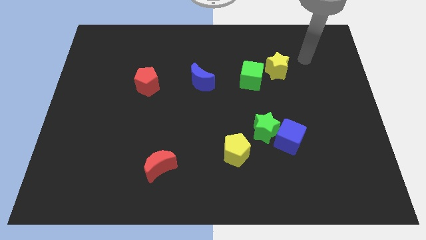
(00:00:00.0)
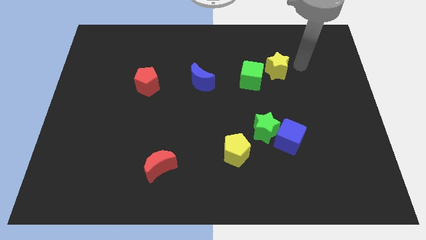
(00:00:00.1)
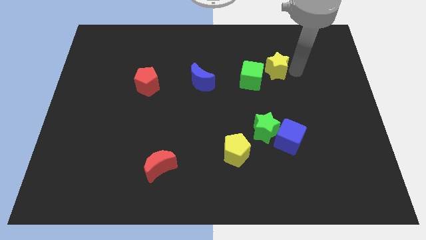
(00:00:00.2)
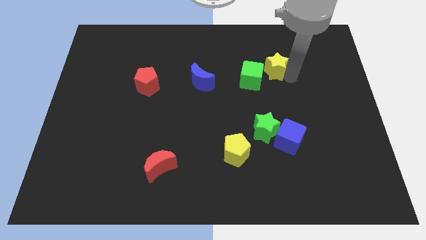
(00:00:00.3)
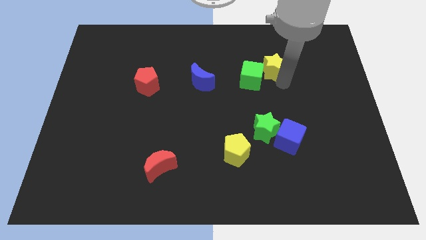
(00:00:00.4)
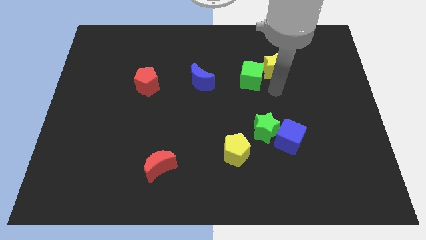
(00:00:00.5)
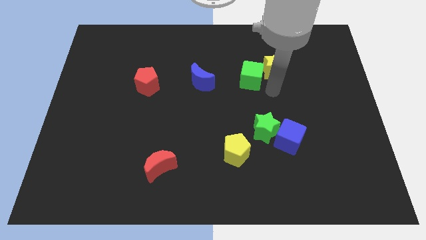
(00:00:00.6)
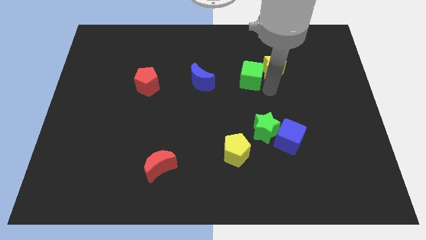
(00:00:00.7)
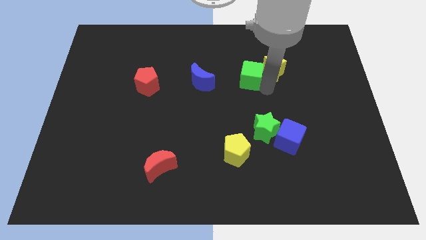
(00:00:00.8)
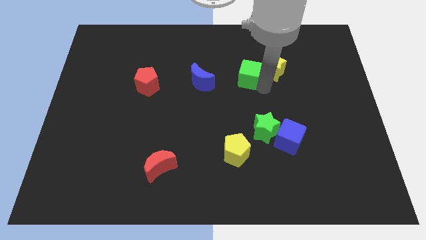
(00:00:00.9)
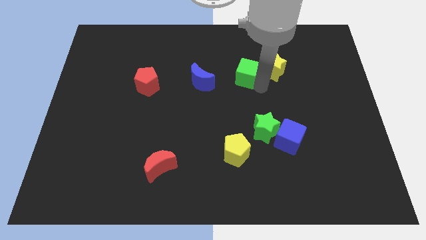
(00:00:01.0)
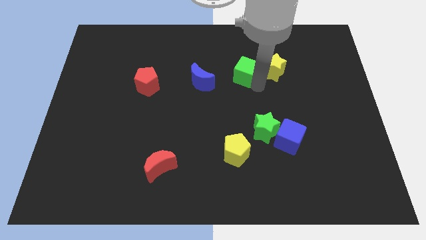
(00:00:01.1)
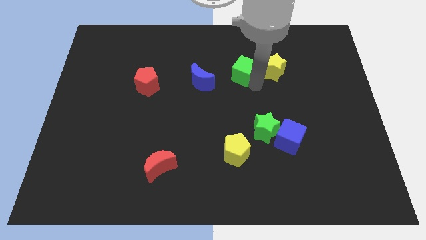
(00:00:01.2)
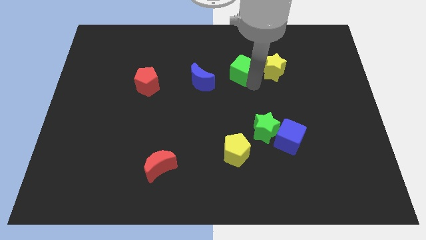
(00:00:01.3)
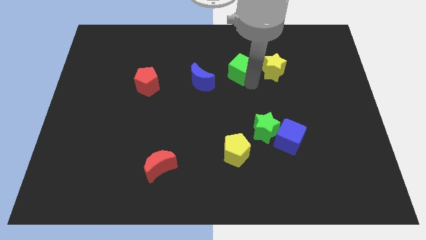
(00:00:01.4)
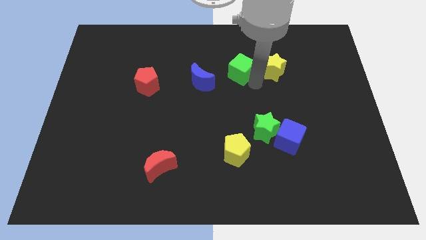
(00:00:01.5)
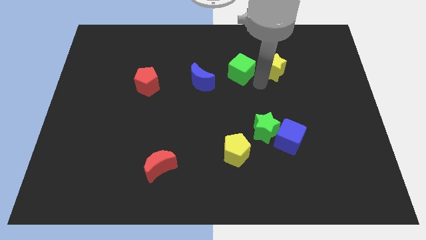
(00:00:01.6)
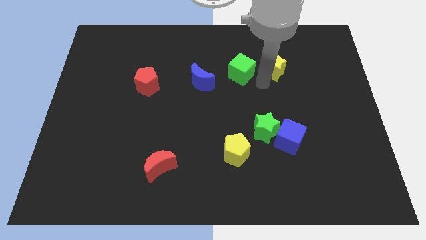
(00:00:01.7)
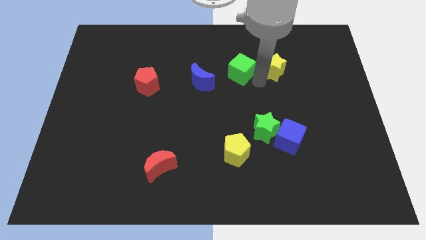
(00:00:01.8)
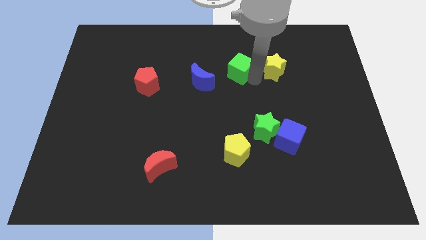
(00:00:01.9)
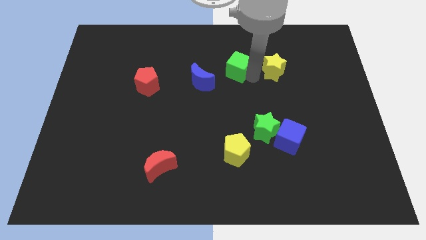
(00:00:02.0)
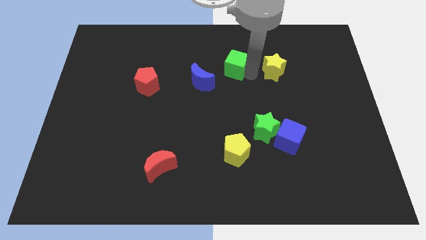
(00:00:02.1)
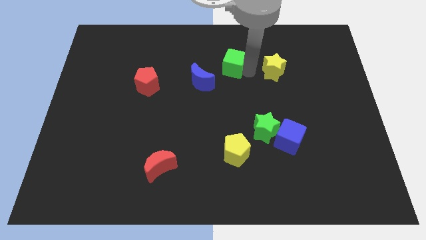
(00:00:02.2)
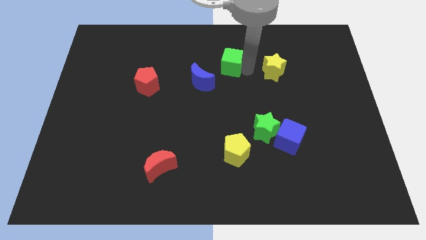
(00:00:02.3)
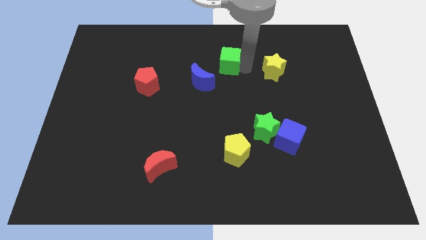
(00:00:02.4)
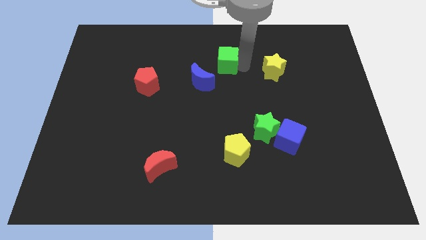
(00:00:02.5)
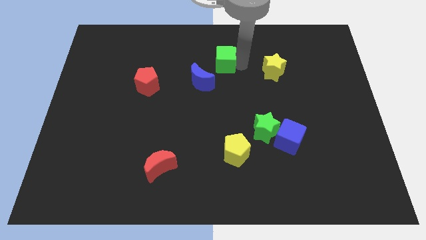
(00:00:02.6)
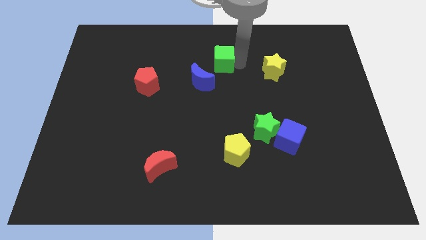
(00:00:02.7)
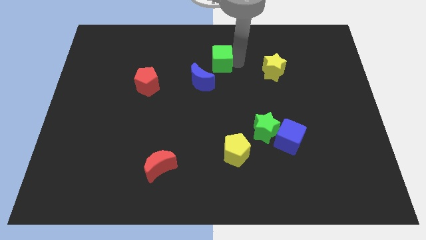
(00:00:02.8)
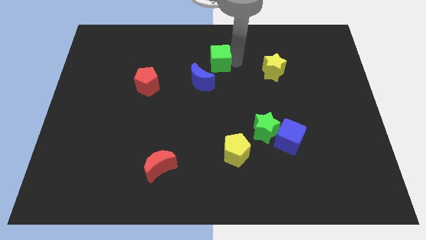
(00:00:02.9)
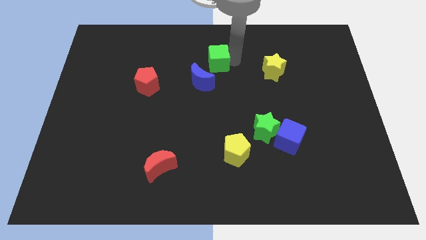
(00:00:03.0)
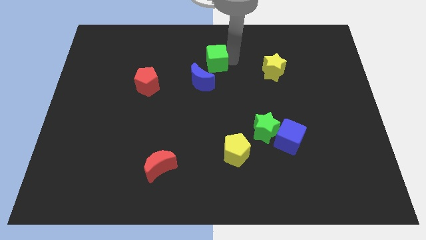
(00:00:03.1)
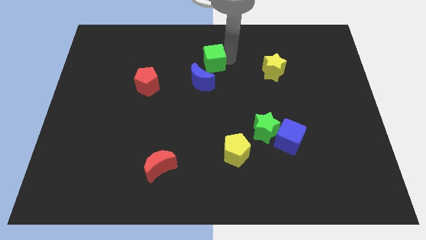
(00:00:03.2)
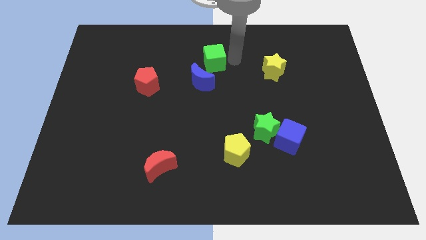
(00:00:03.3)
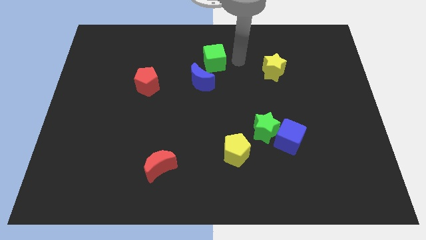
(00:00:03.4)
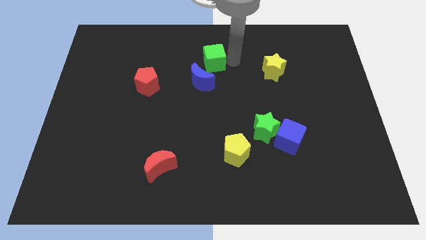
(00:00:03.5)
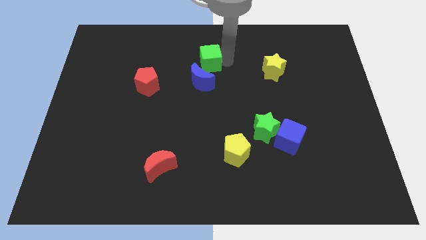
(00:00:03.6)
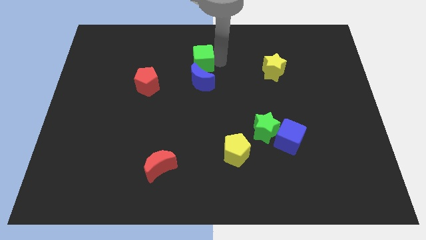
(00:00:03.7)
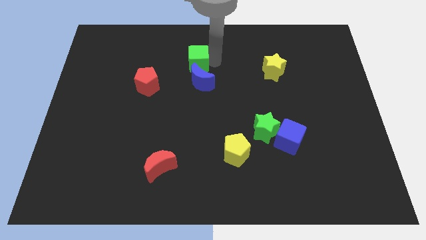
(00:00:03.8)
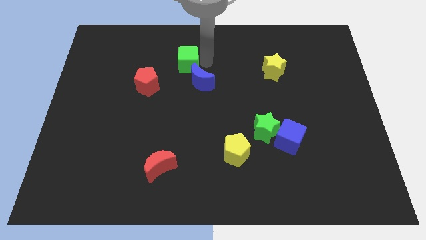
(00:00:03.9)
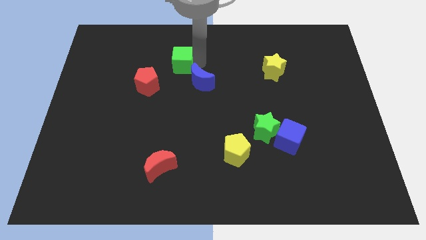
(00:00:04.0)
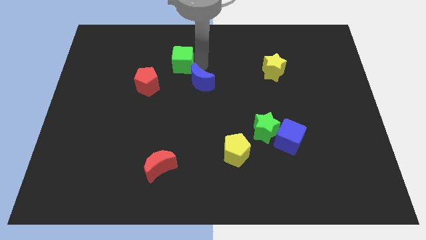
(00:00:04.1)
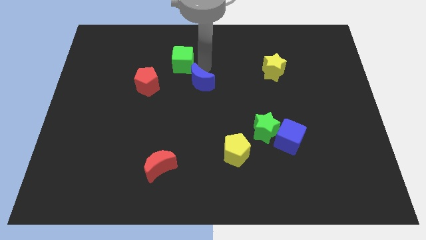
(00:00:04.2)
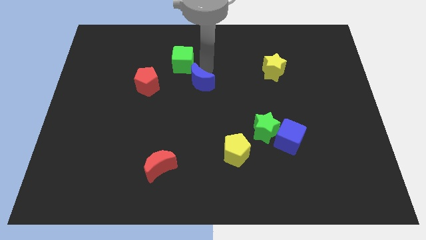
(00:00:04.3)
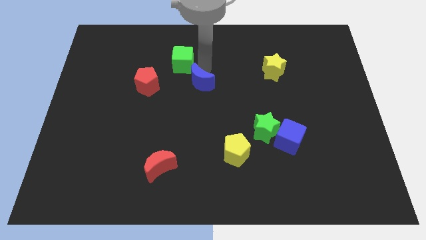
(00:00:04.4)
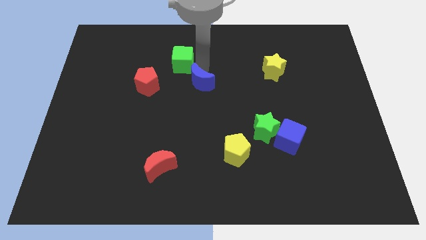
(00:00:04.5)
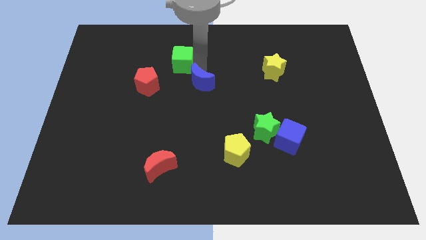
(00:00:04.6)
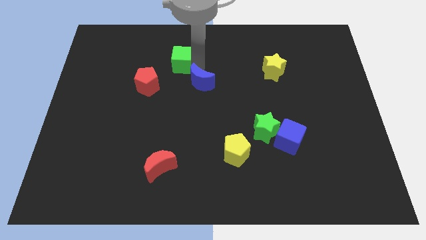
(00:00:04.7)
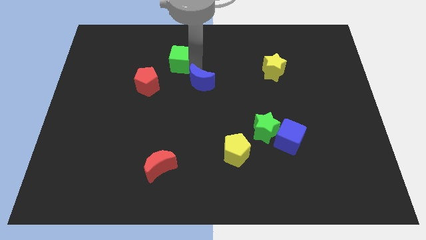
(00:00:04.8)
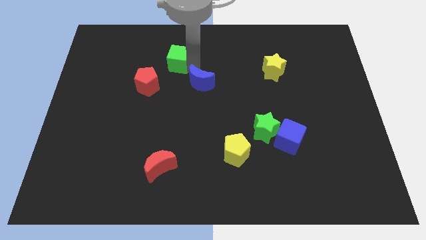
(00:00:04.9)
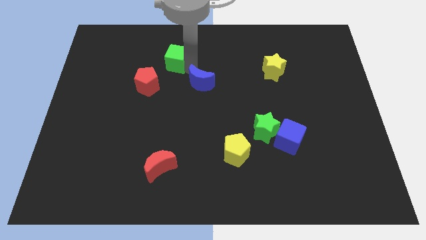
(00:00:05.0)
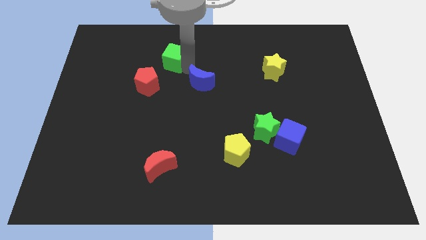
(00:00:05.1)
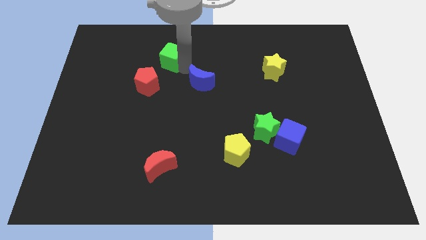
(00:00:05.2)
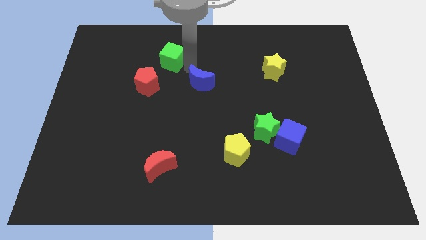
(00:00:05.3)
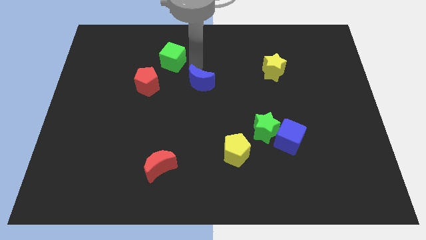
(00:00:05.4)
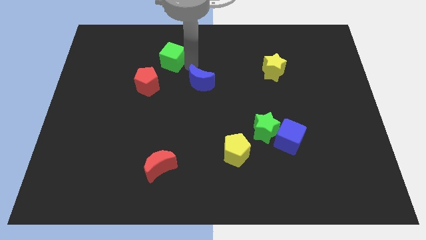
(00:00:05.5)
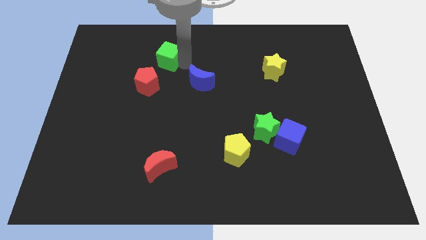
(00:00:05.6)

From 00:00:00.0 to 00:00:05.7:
put the green cube to the top side of the red pentagon

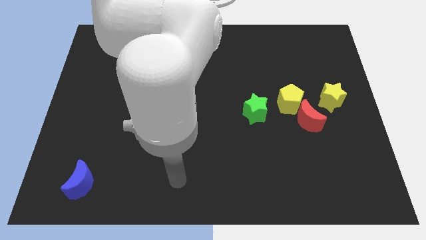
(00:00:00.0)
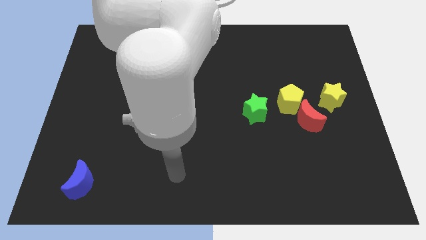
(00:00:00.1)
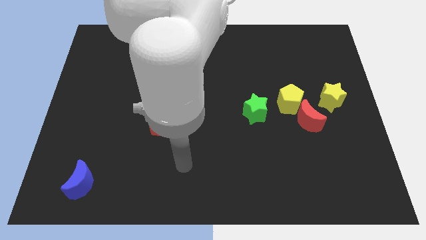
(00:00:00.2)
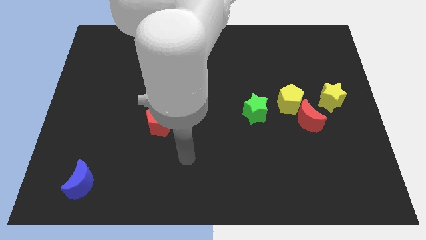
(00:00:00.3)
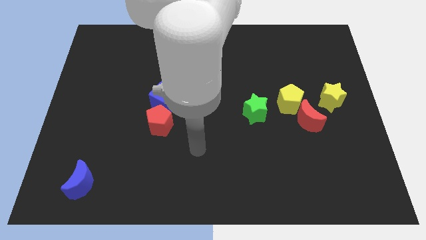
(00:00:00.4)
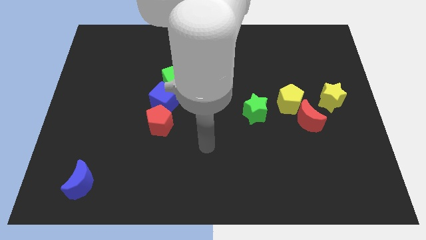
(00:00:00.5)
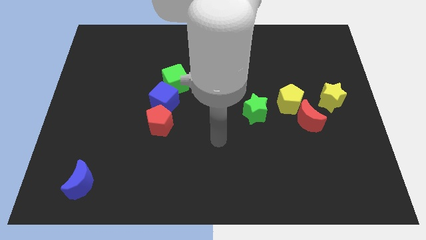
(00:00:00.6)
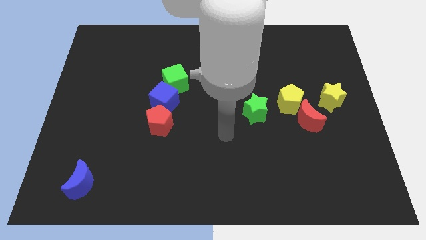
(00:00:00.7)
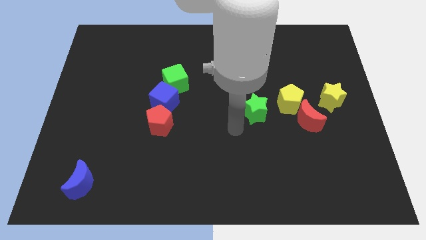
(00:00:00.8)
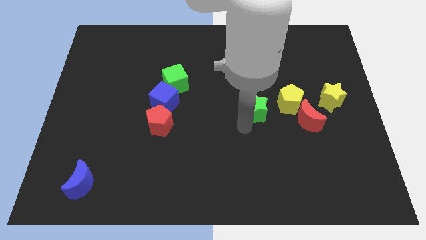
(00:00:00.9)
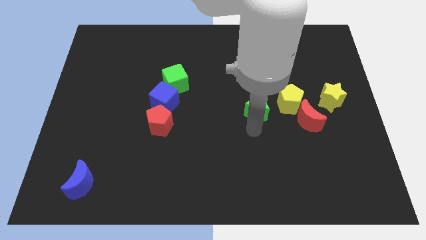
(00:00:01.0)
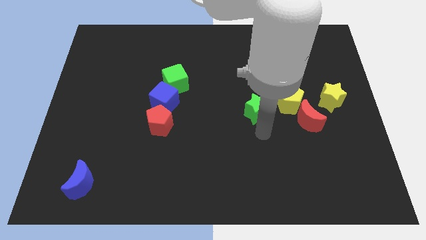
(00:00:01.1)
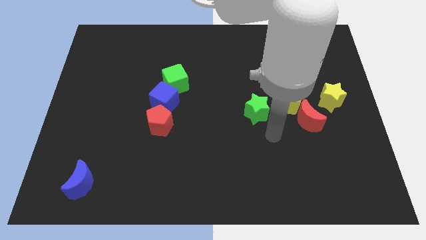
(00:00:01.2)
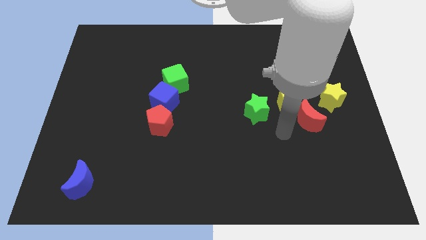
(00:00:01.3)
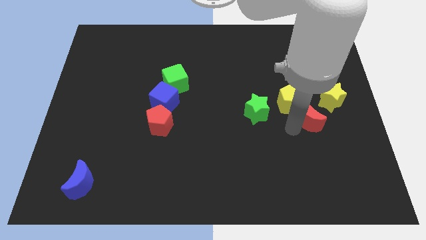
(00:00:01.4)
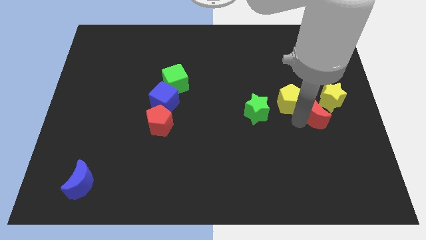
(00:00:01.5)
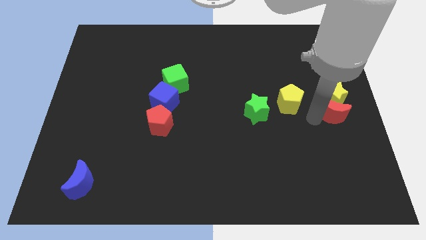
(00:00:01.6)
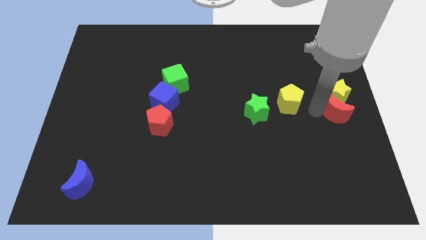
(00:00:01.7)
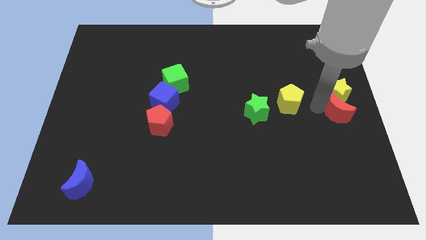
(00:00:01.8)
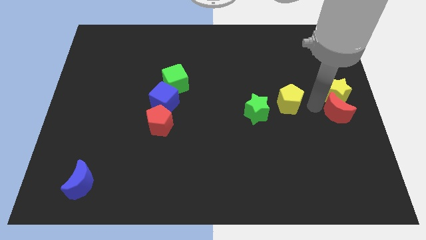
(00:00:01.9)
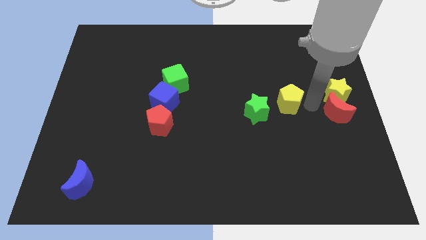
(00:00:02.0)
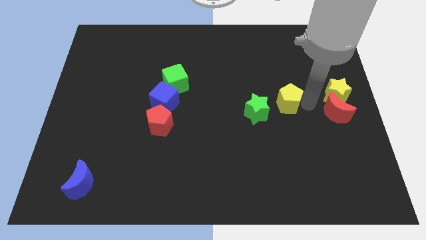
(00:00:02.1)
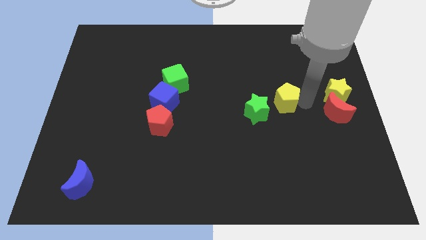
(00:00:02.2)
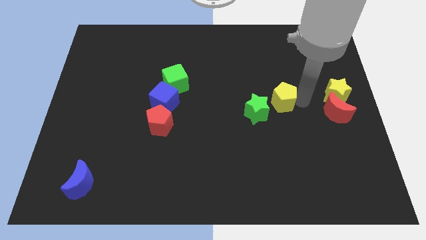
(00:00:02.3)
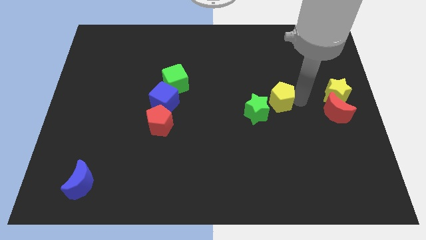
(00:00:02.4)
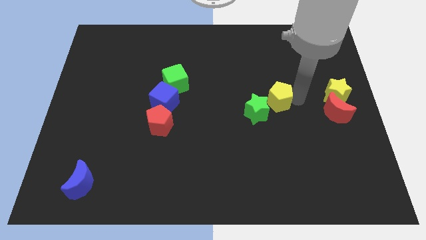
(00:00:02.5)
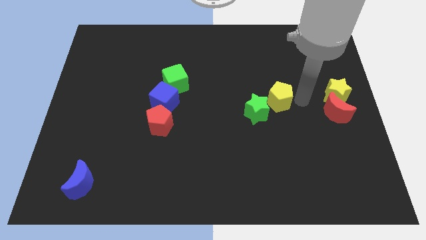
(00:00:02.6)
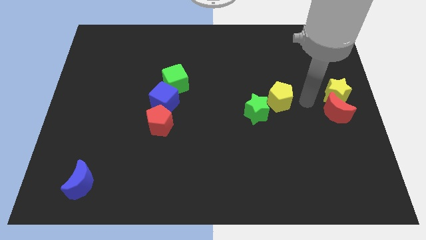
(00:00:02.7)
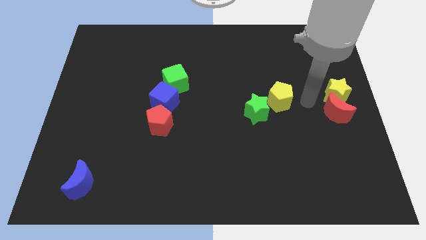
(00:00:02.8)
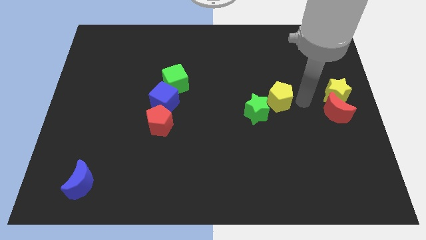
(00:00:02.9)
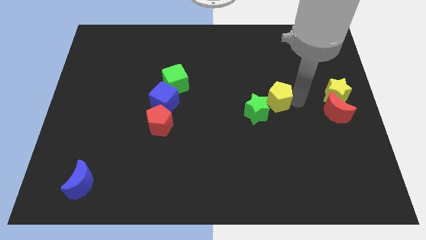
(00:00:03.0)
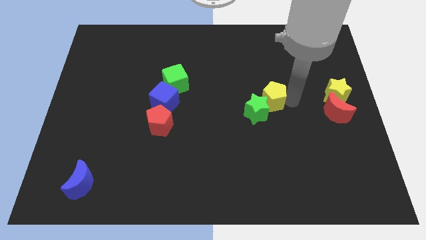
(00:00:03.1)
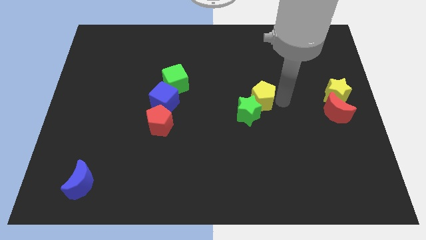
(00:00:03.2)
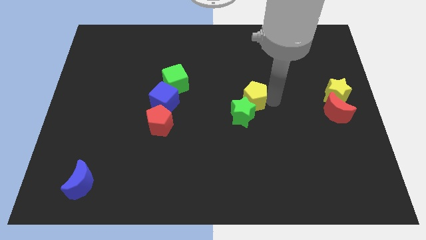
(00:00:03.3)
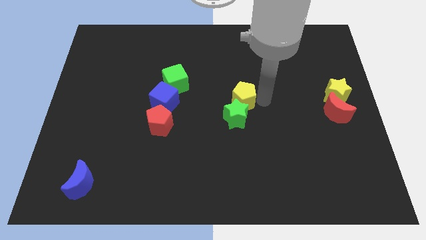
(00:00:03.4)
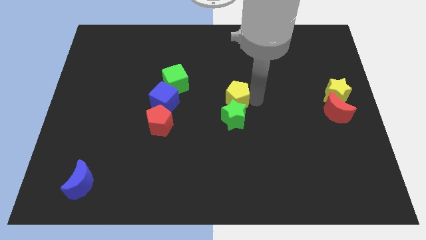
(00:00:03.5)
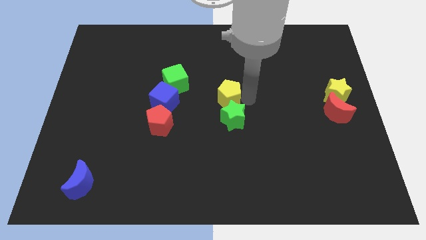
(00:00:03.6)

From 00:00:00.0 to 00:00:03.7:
put the yellow pentagon to the top left of the green star
